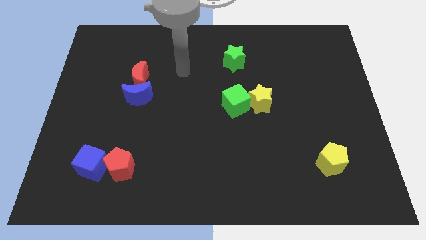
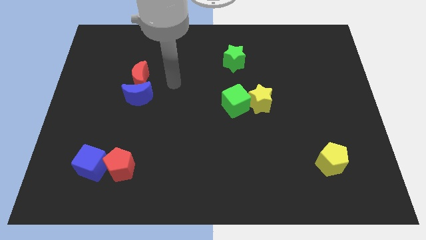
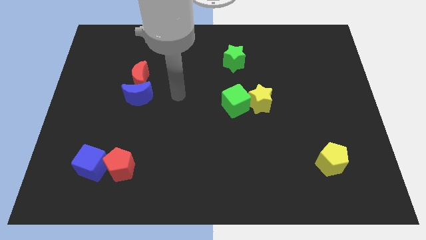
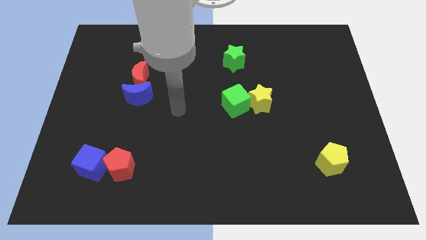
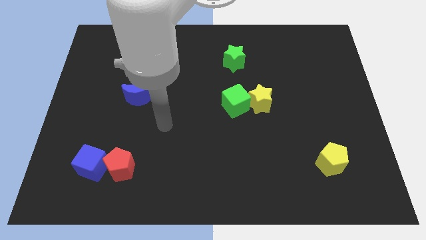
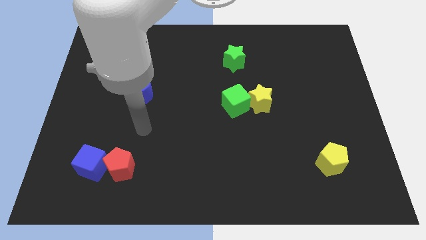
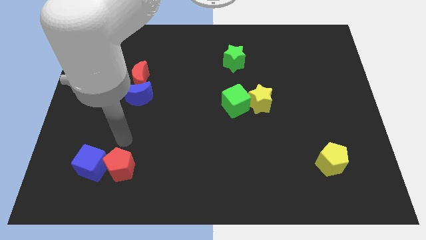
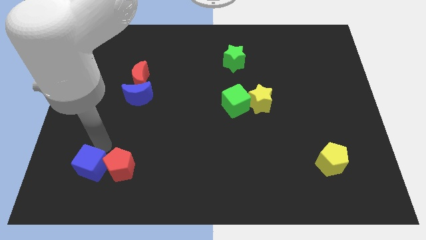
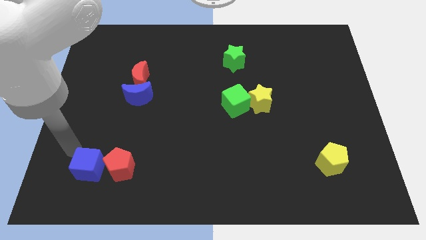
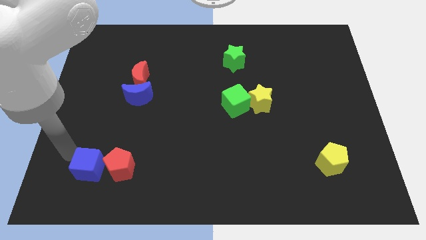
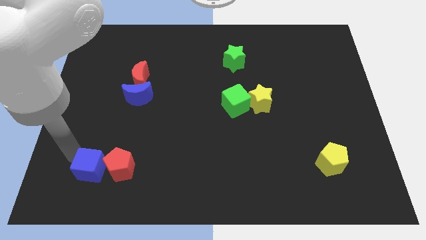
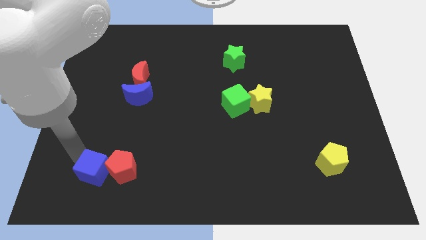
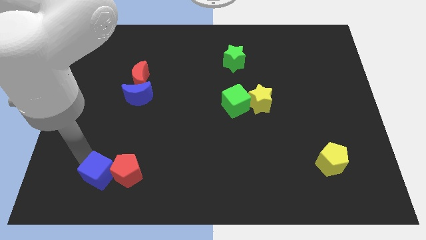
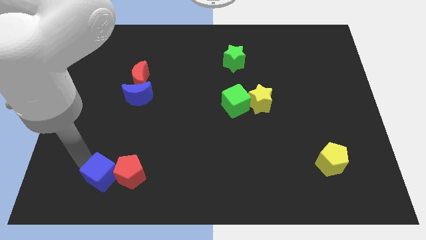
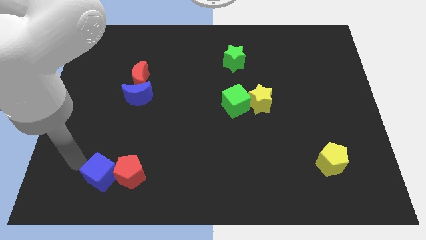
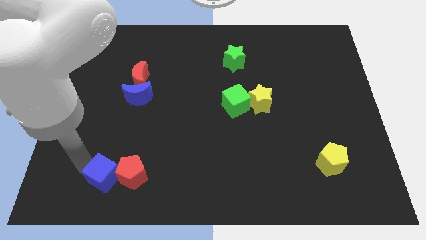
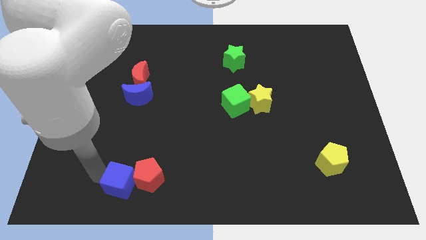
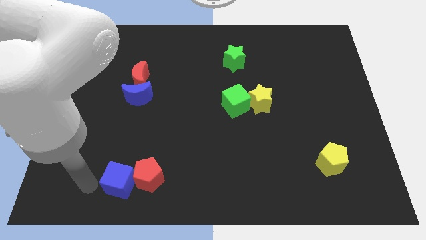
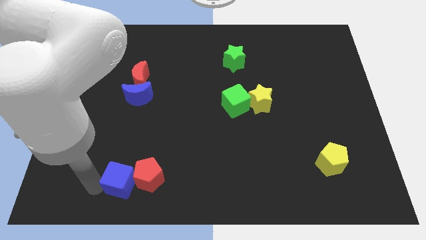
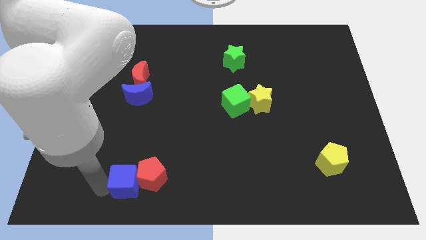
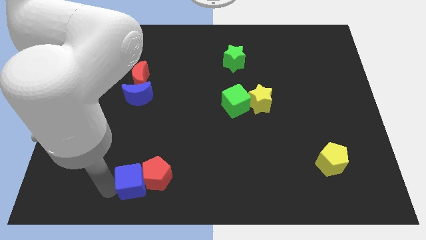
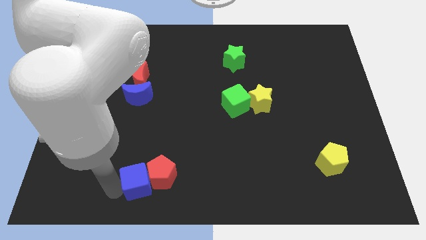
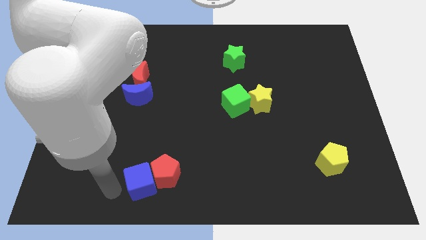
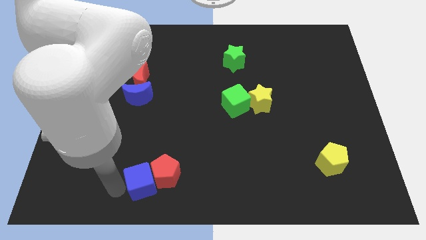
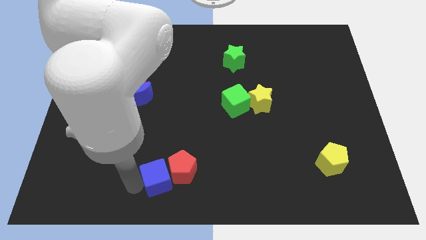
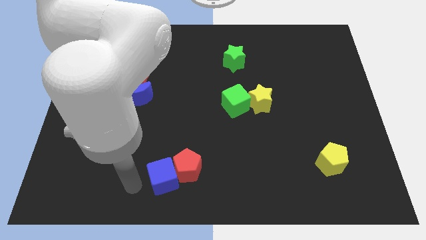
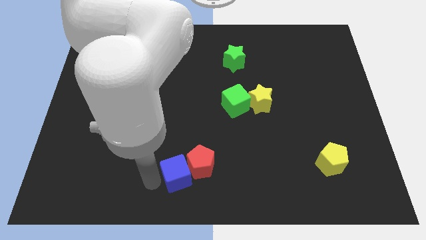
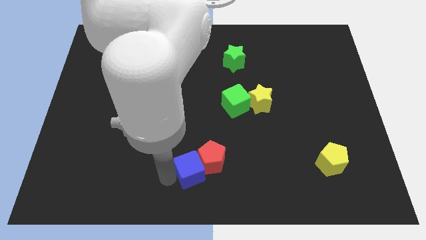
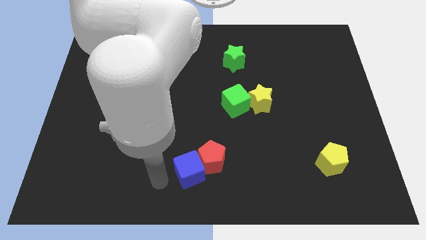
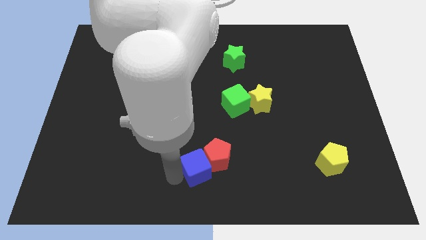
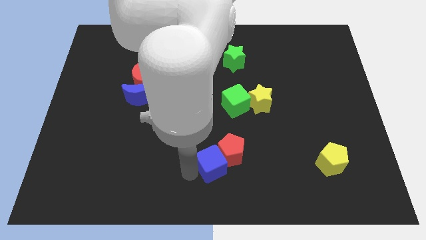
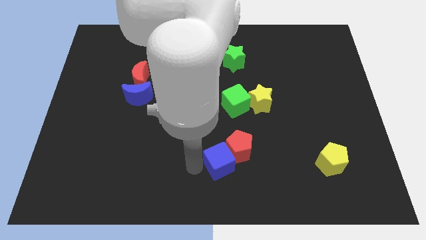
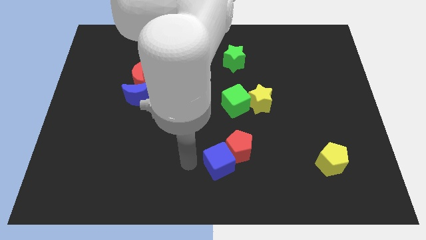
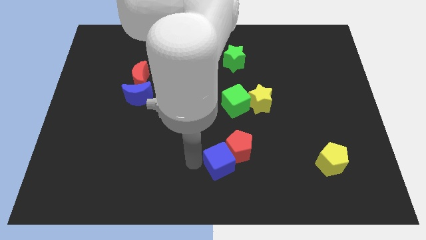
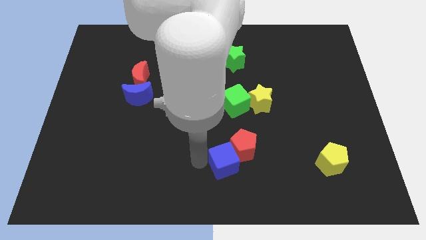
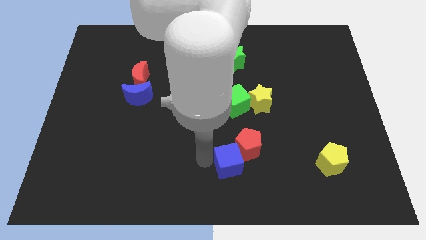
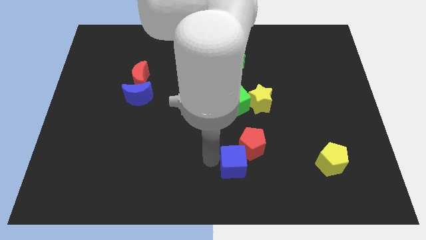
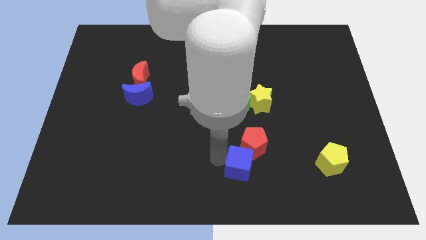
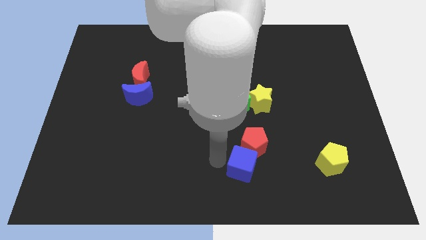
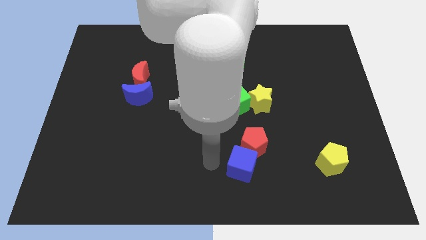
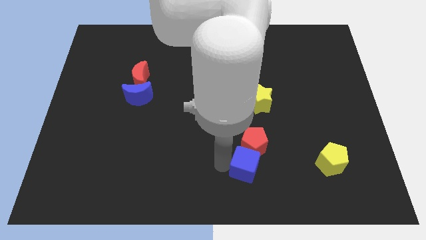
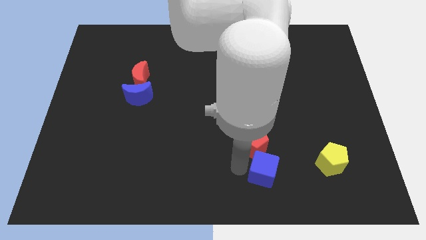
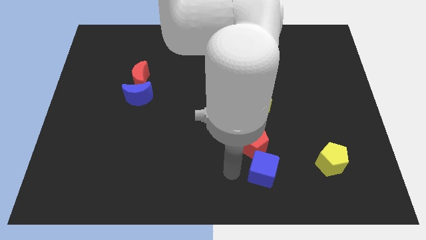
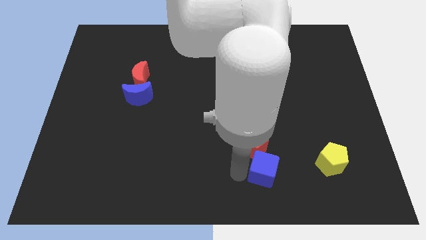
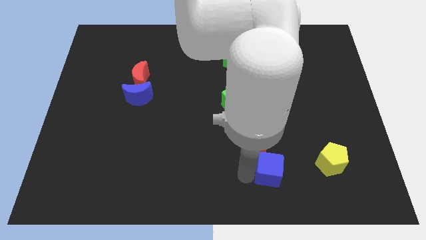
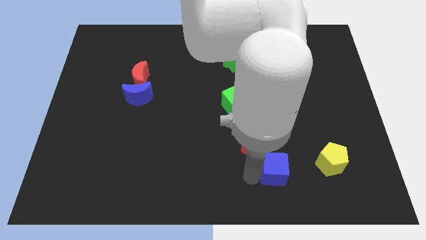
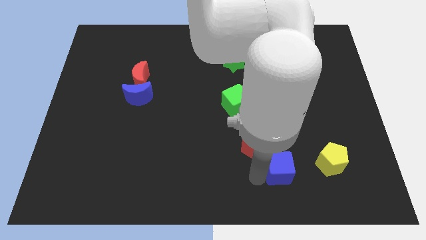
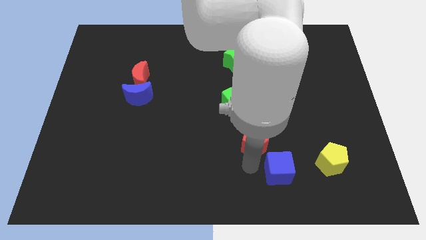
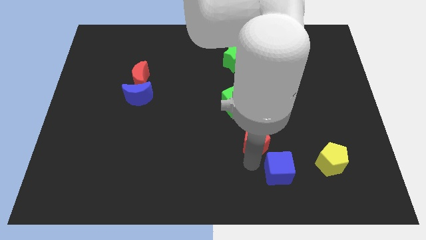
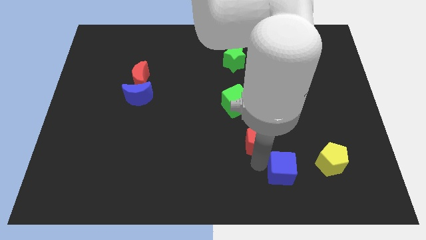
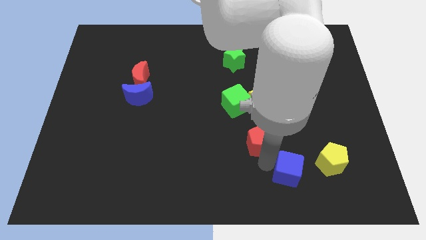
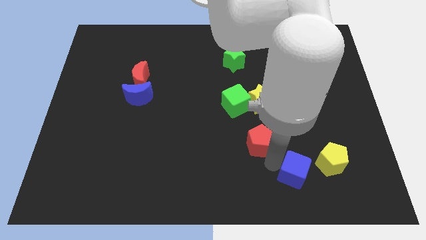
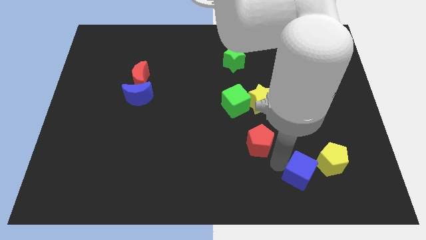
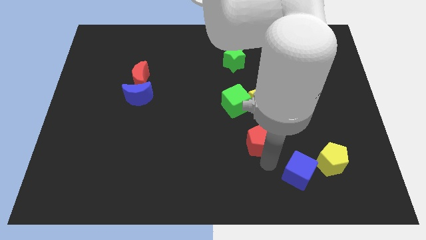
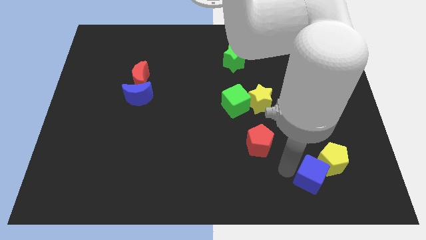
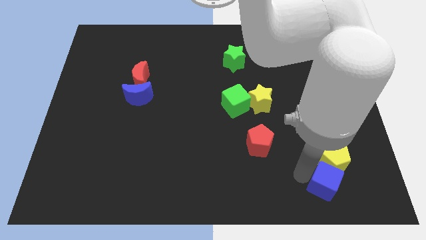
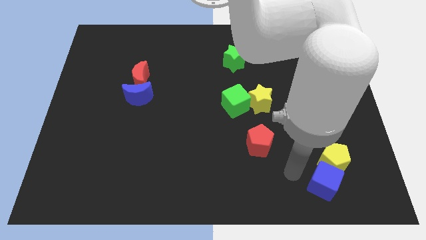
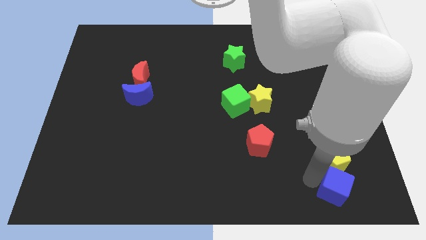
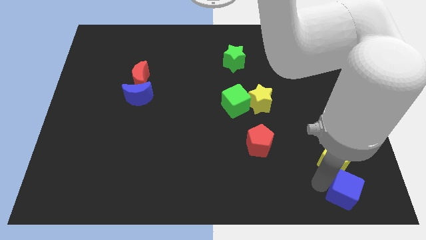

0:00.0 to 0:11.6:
put the blue cube to the bottom right corner

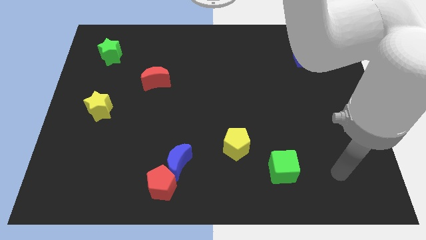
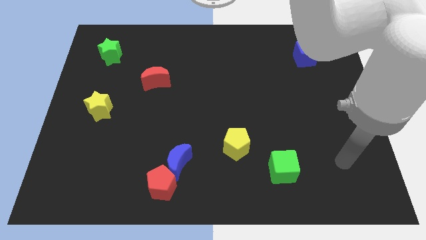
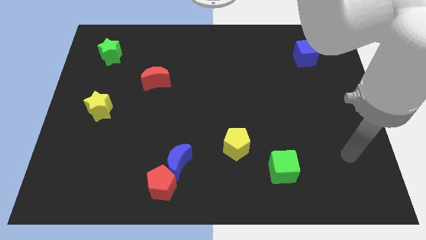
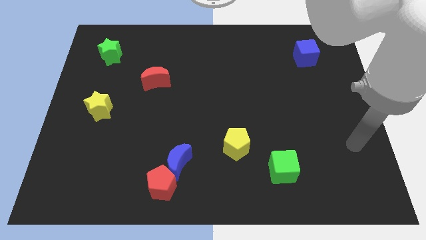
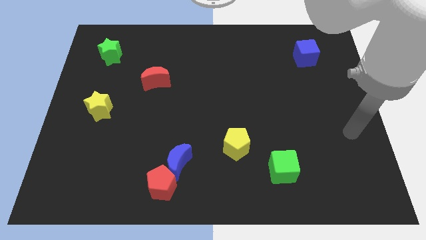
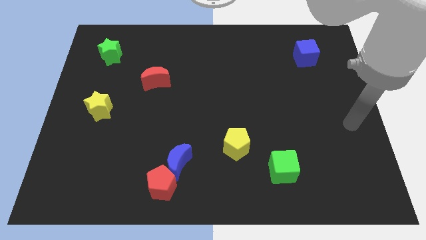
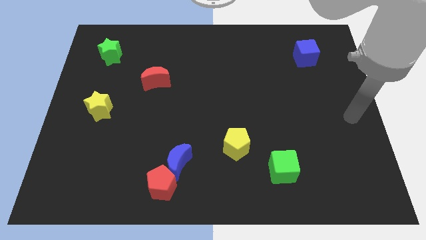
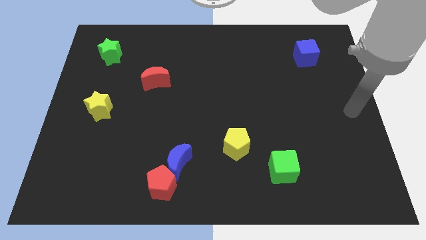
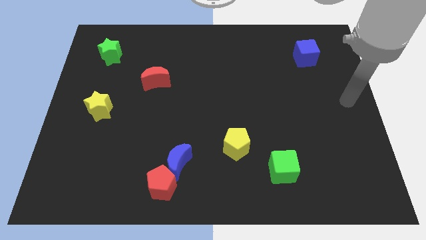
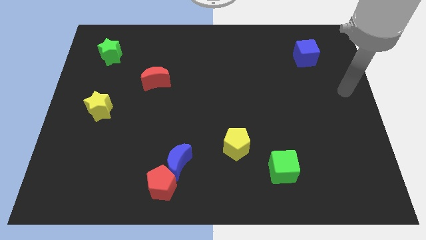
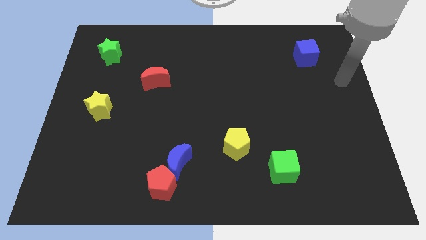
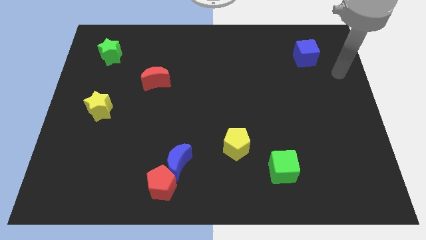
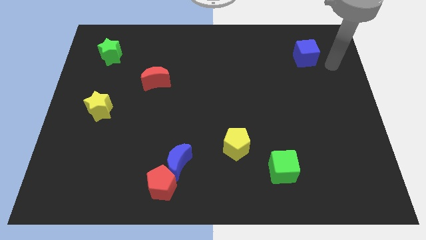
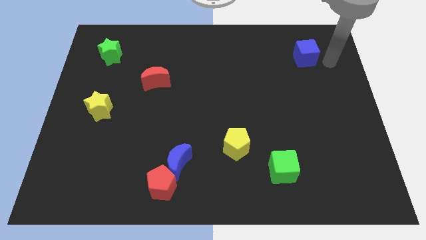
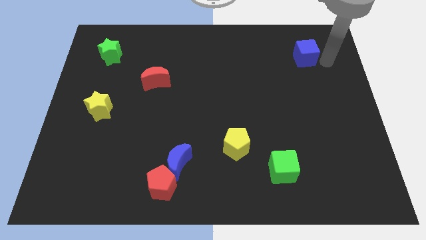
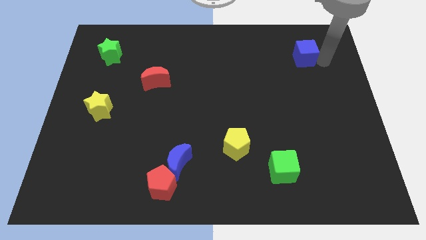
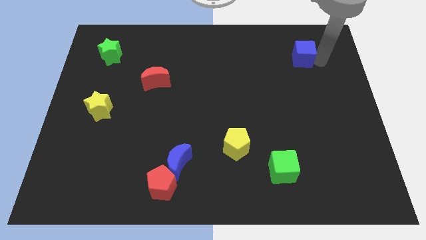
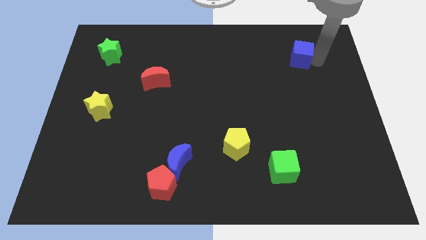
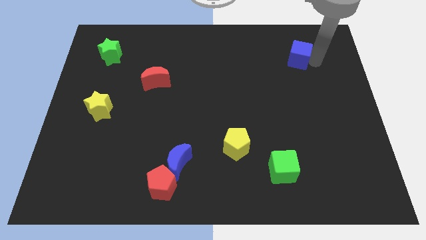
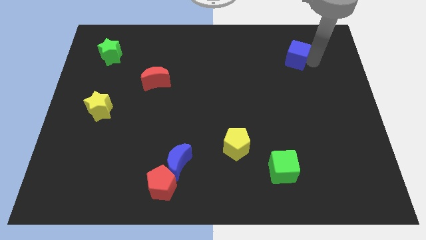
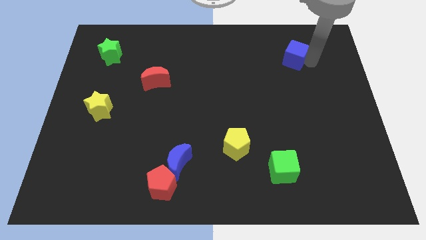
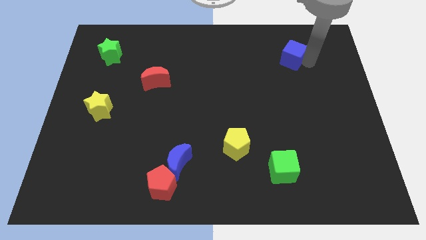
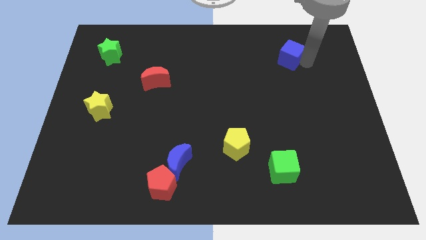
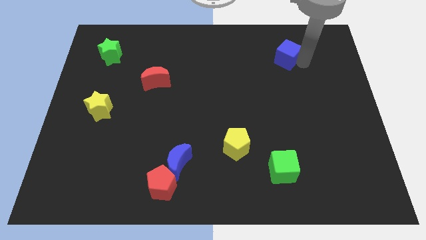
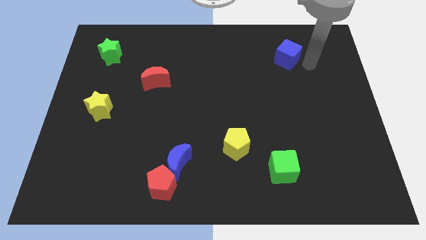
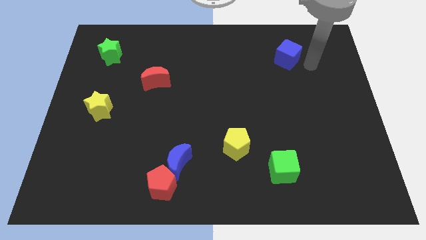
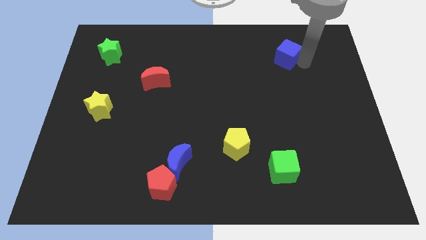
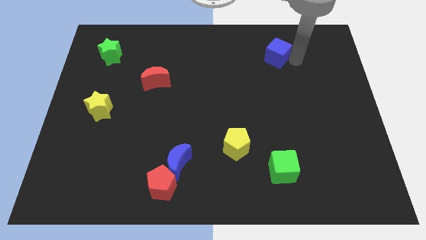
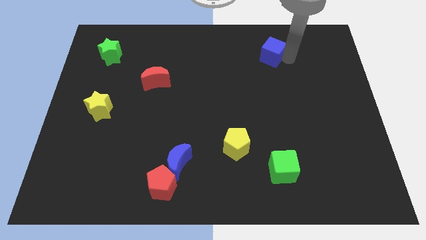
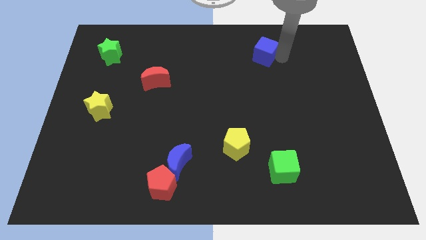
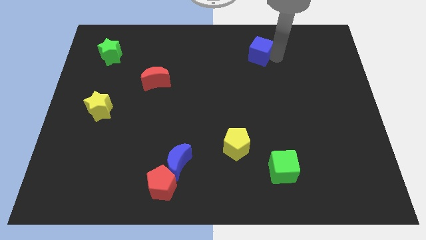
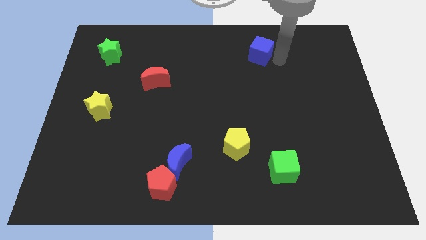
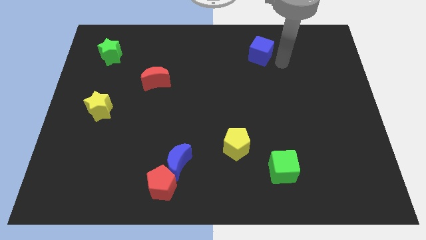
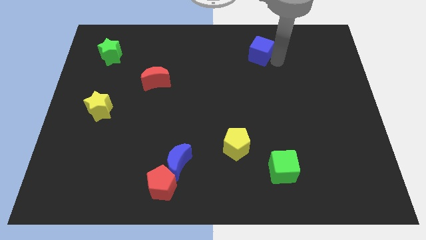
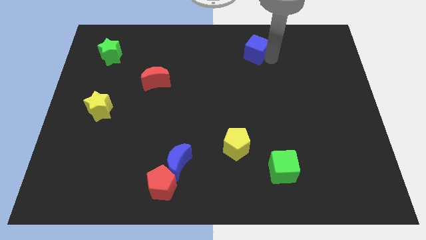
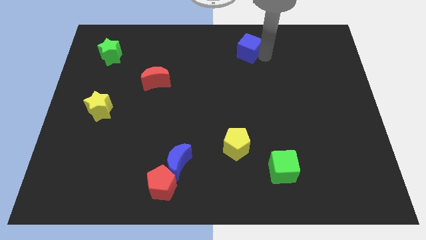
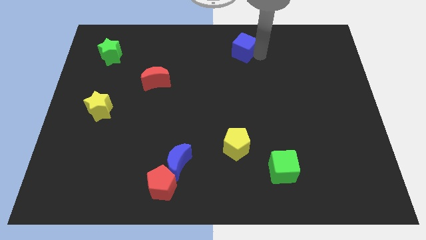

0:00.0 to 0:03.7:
slide the blue cube to the top side
